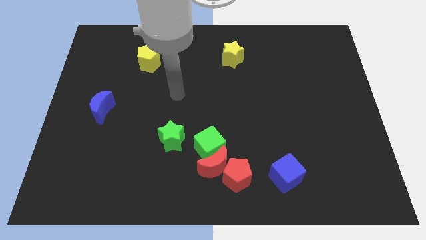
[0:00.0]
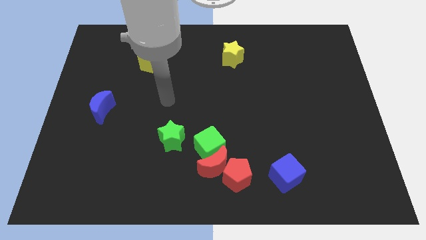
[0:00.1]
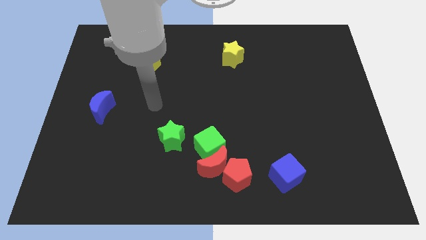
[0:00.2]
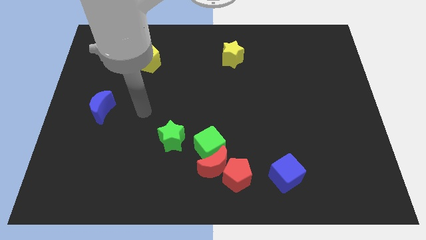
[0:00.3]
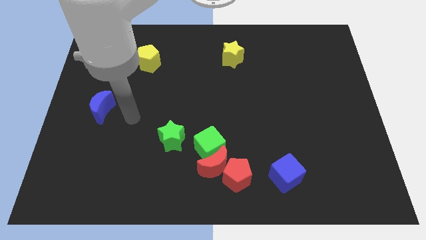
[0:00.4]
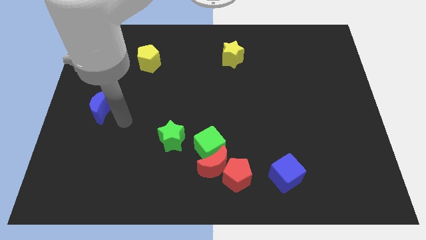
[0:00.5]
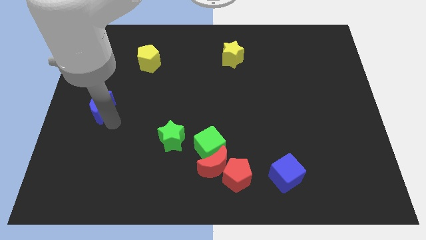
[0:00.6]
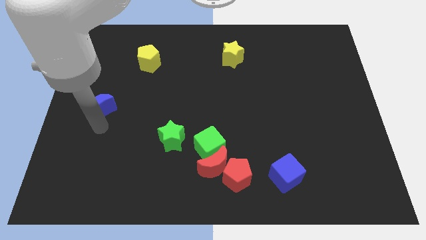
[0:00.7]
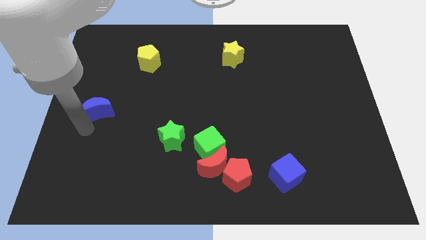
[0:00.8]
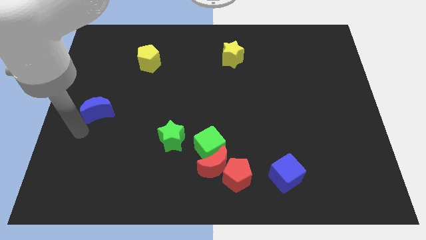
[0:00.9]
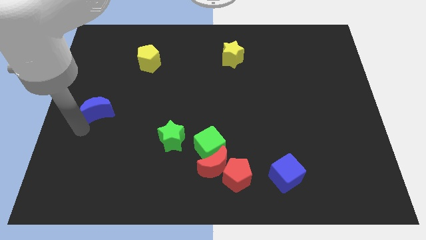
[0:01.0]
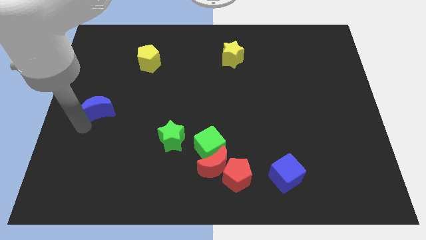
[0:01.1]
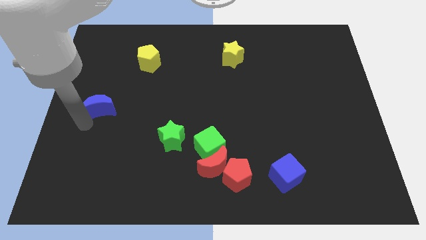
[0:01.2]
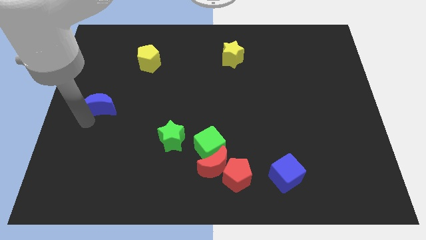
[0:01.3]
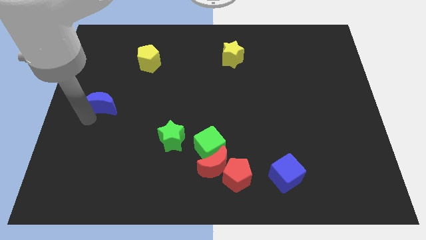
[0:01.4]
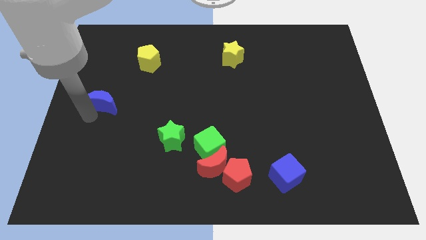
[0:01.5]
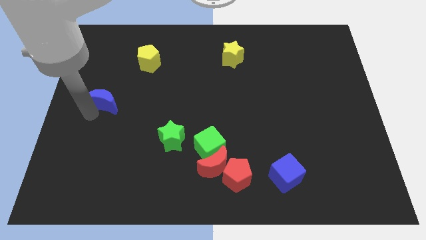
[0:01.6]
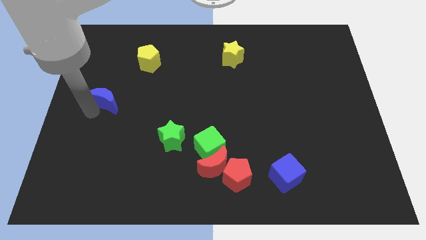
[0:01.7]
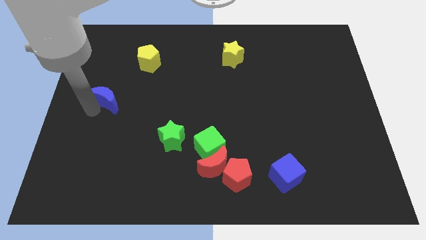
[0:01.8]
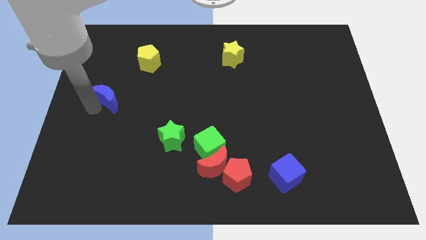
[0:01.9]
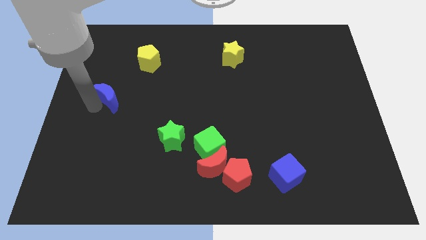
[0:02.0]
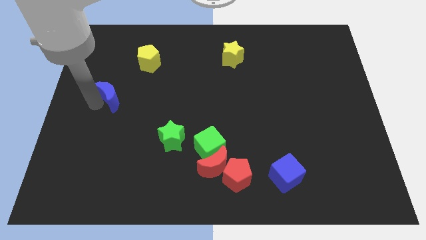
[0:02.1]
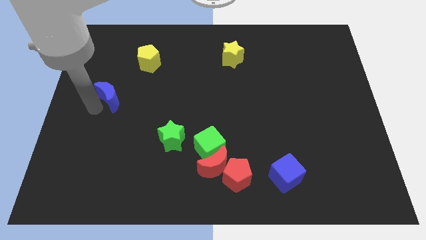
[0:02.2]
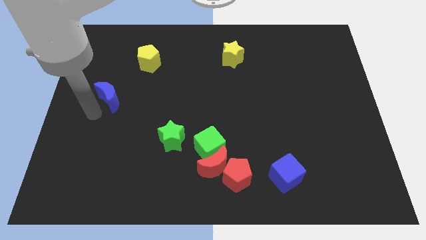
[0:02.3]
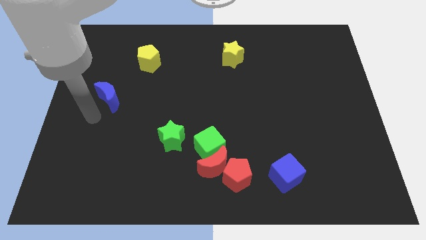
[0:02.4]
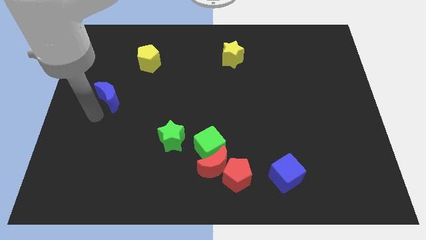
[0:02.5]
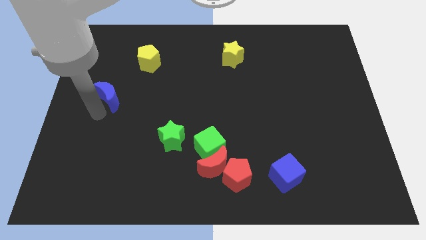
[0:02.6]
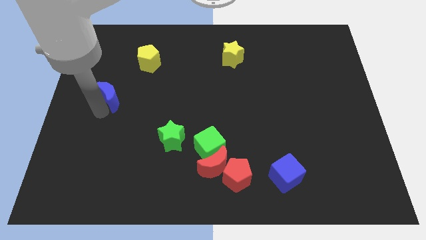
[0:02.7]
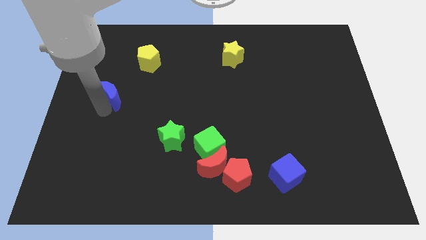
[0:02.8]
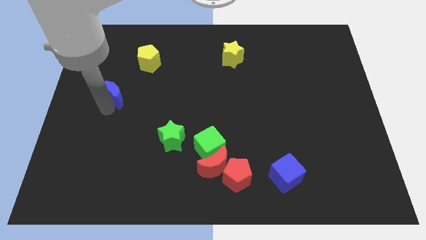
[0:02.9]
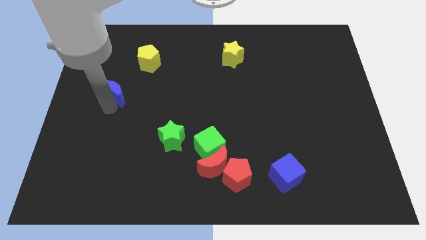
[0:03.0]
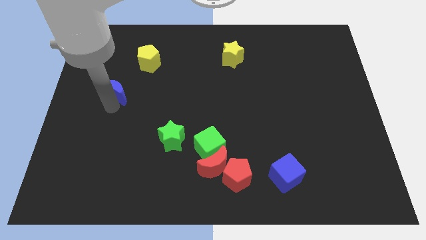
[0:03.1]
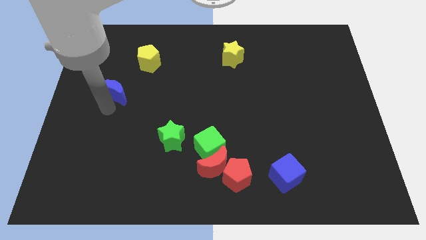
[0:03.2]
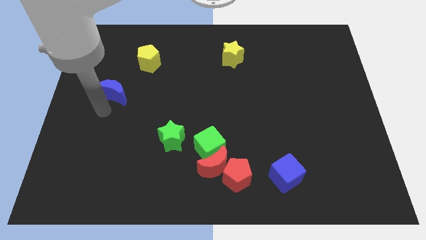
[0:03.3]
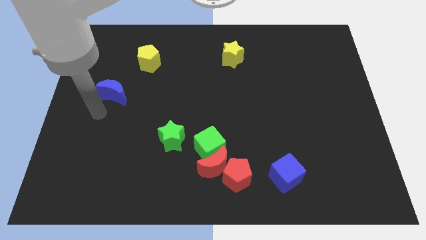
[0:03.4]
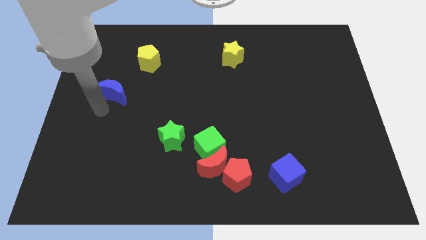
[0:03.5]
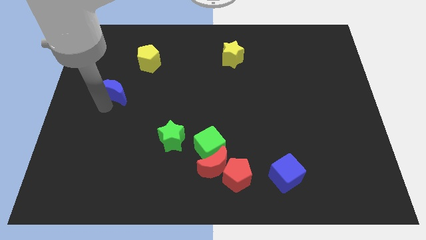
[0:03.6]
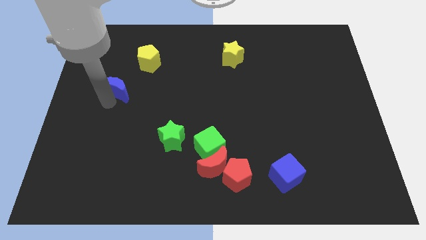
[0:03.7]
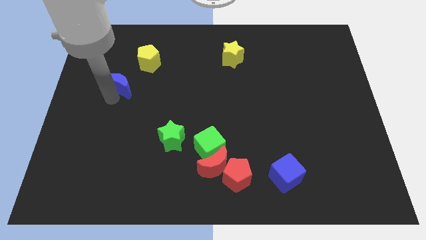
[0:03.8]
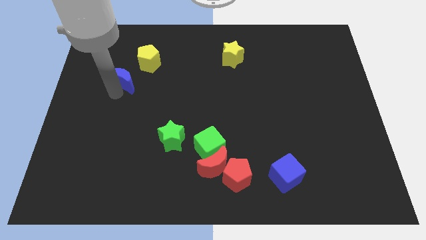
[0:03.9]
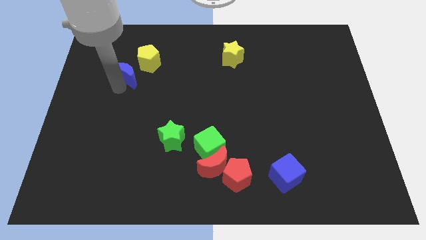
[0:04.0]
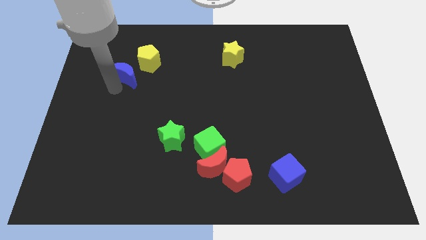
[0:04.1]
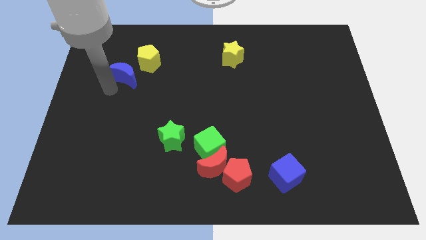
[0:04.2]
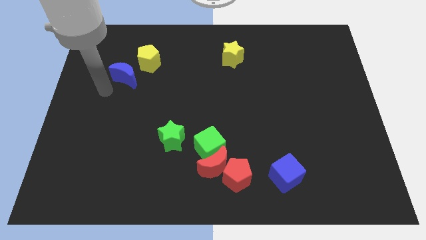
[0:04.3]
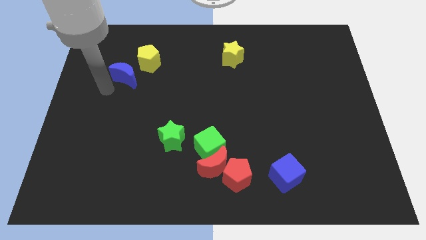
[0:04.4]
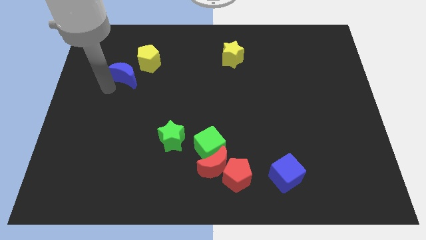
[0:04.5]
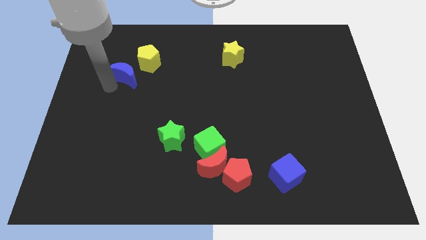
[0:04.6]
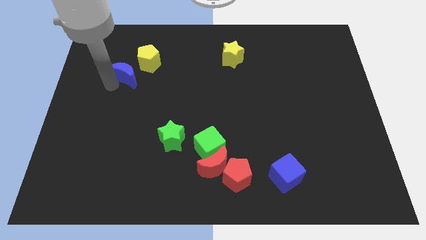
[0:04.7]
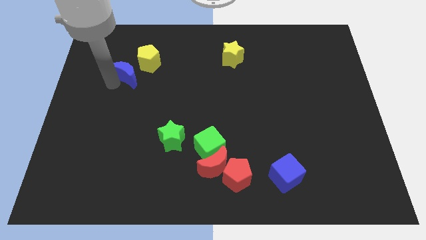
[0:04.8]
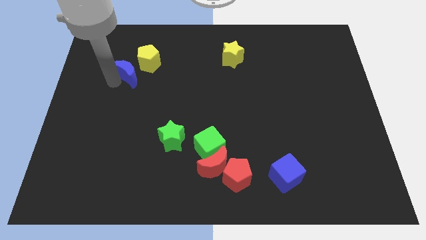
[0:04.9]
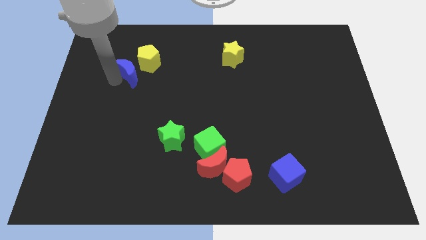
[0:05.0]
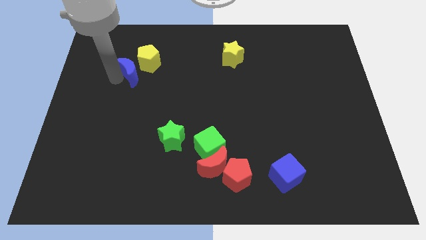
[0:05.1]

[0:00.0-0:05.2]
slide the blue moon to the yellow pentagon

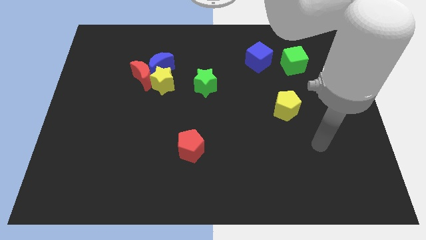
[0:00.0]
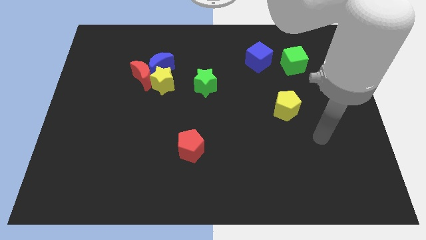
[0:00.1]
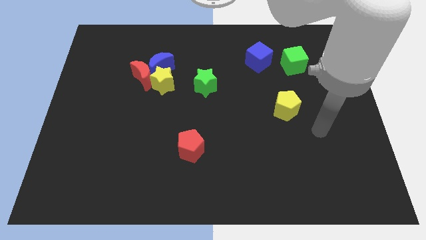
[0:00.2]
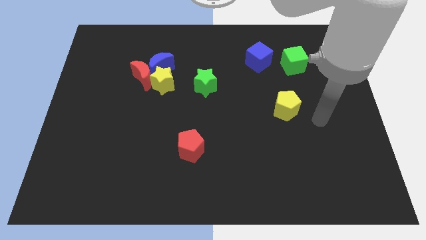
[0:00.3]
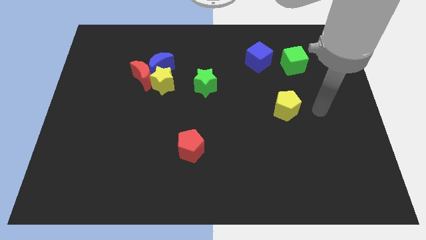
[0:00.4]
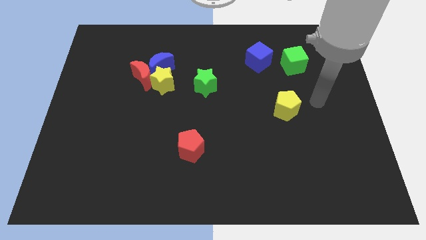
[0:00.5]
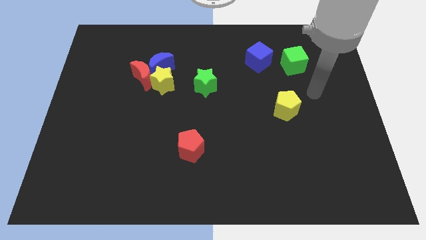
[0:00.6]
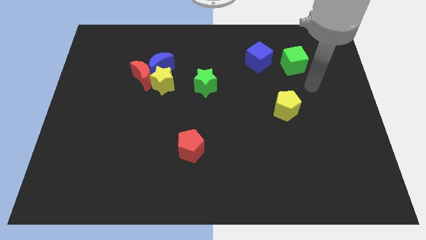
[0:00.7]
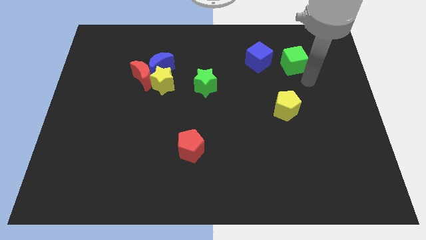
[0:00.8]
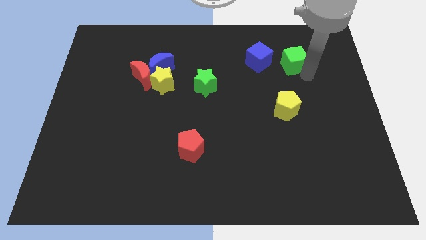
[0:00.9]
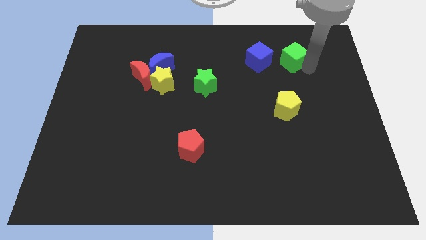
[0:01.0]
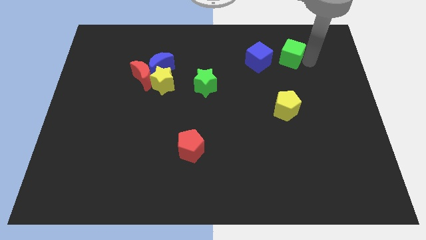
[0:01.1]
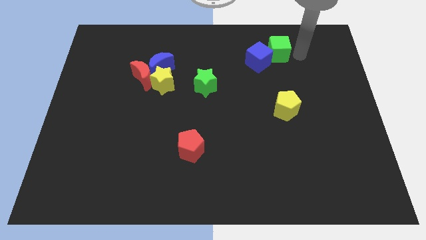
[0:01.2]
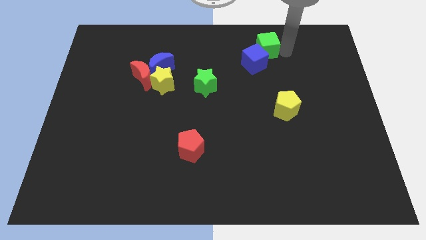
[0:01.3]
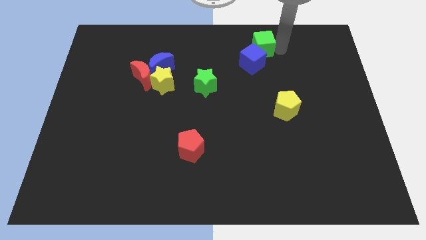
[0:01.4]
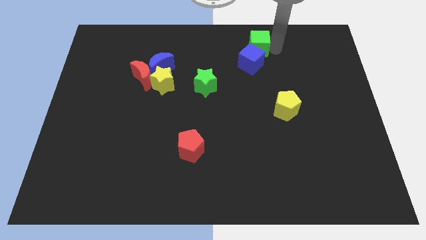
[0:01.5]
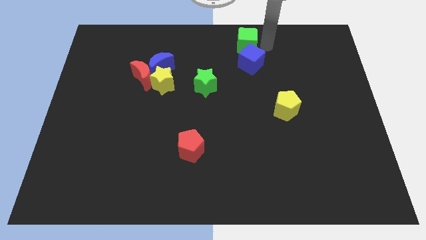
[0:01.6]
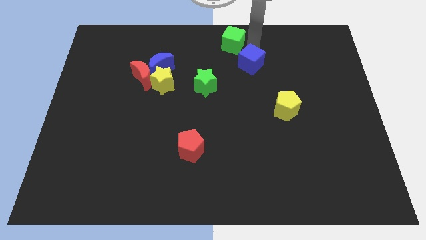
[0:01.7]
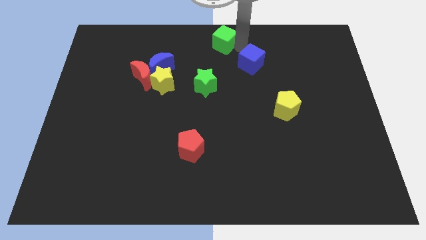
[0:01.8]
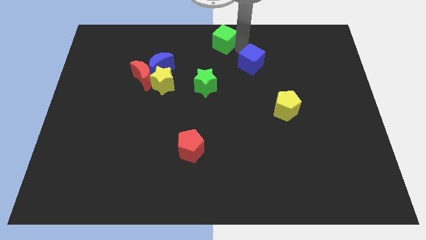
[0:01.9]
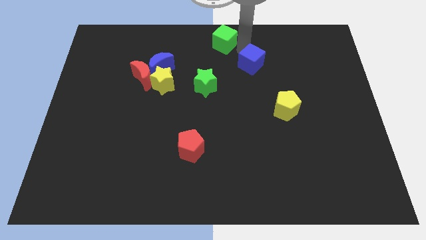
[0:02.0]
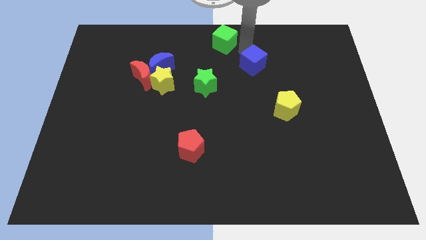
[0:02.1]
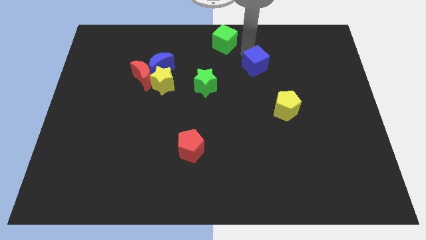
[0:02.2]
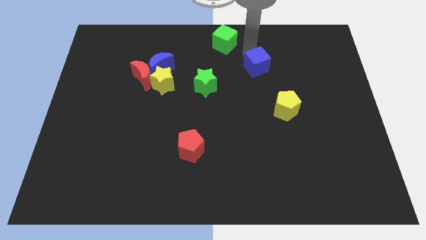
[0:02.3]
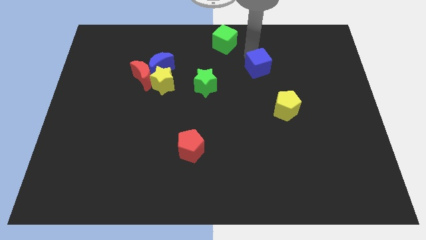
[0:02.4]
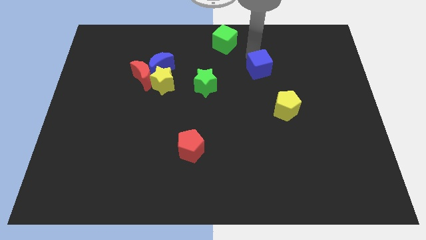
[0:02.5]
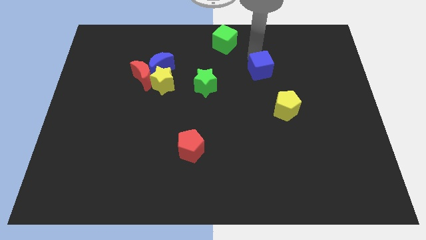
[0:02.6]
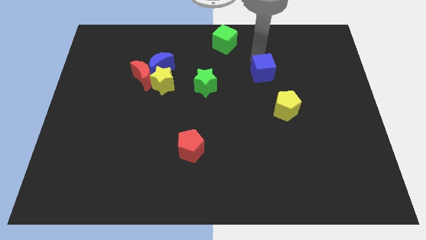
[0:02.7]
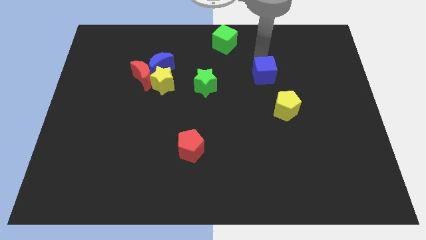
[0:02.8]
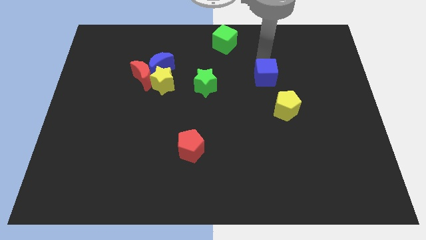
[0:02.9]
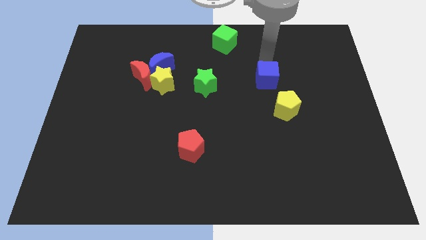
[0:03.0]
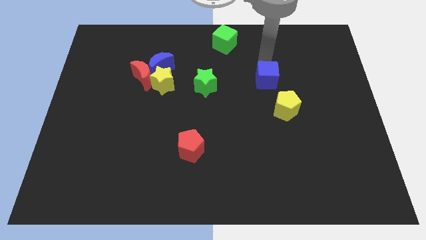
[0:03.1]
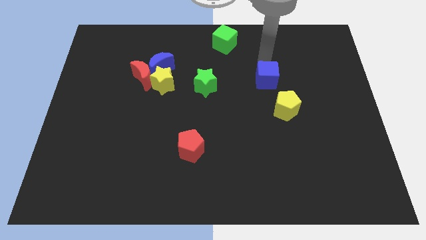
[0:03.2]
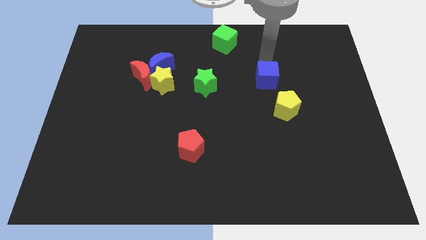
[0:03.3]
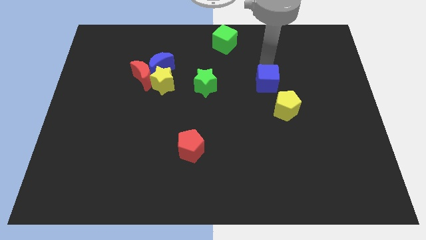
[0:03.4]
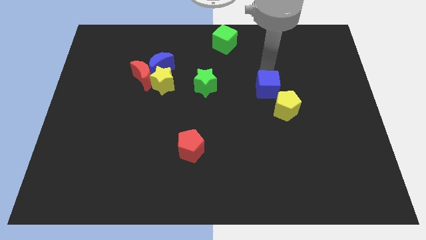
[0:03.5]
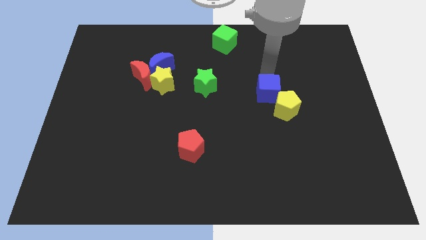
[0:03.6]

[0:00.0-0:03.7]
push the blue cube close to the yellow pentagon
